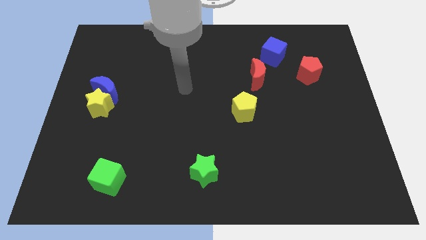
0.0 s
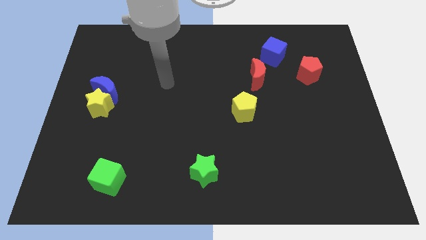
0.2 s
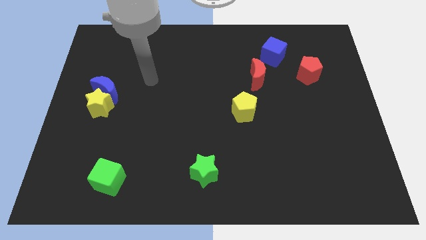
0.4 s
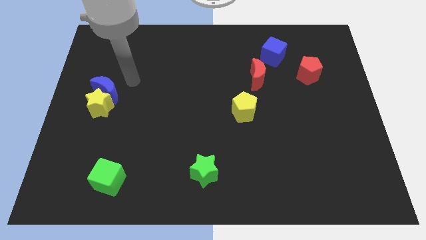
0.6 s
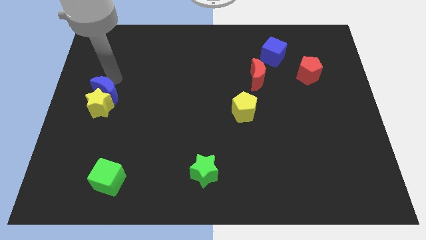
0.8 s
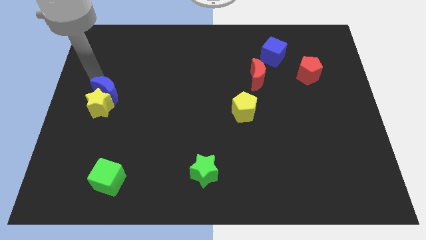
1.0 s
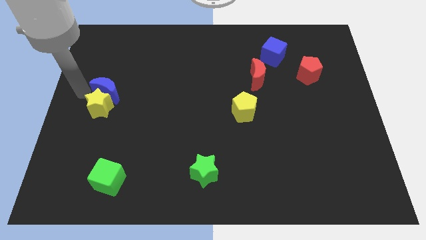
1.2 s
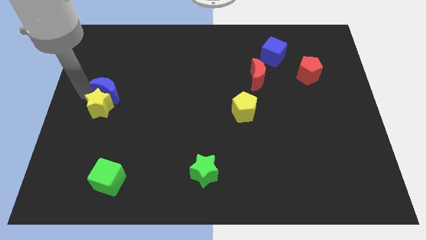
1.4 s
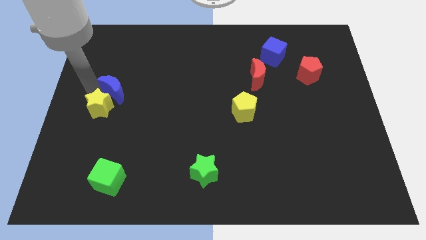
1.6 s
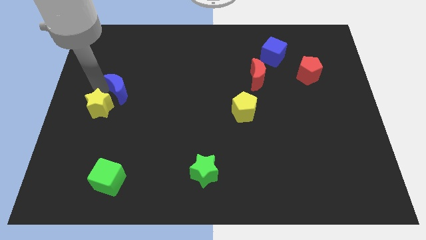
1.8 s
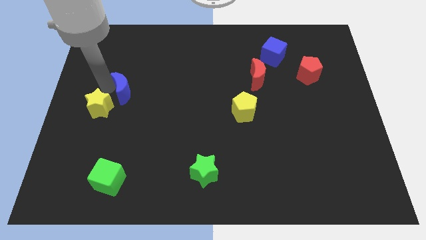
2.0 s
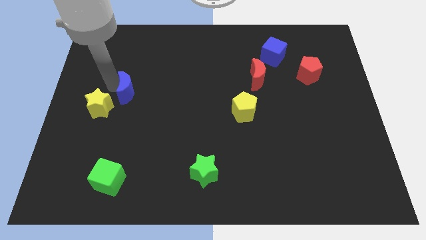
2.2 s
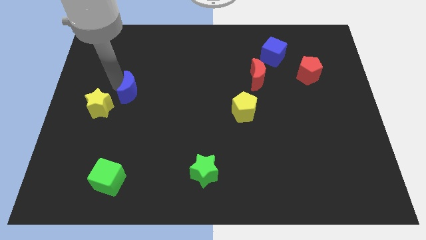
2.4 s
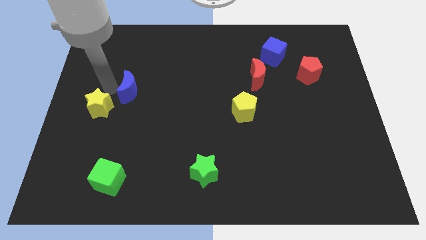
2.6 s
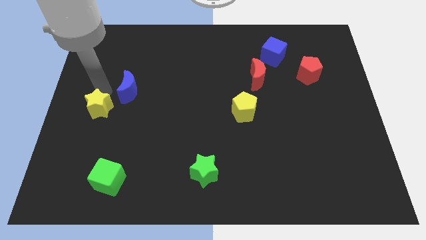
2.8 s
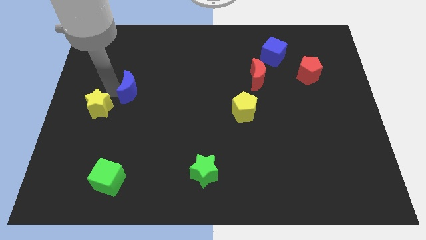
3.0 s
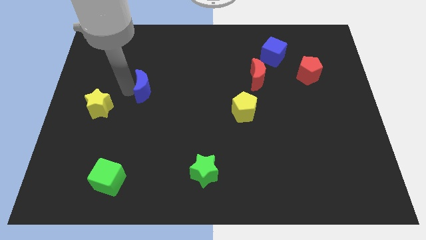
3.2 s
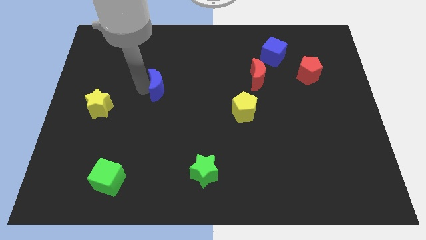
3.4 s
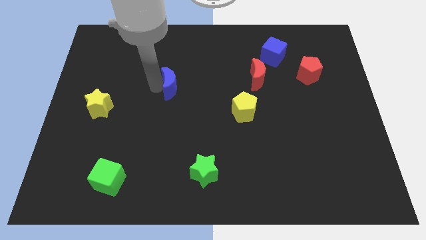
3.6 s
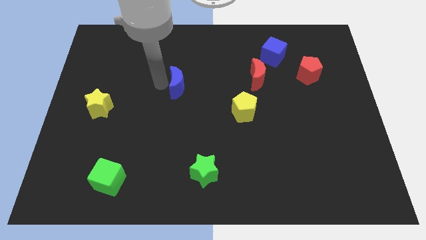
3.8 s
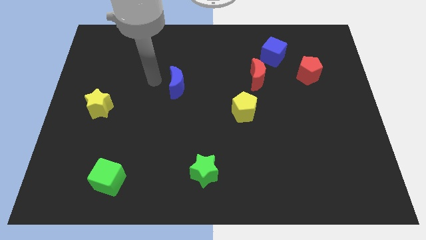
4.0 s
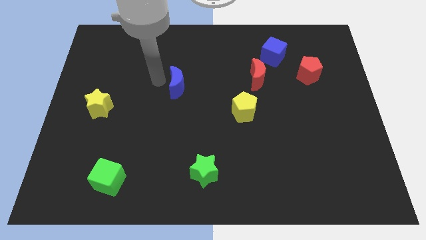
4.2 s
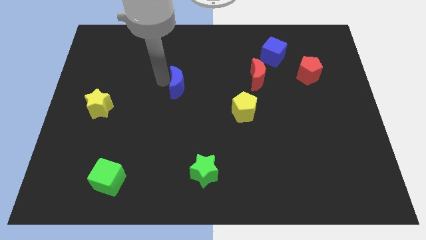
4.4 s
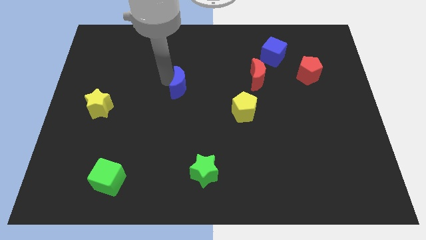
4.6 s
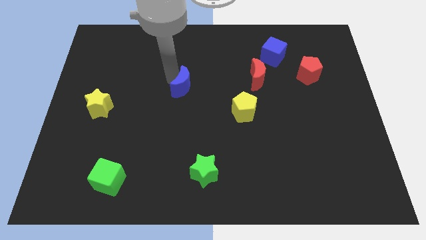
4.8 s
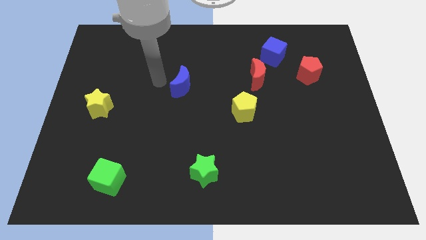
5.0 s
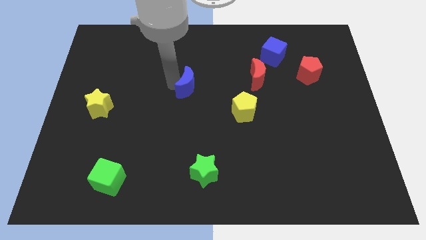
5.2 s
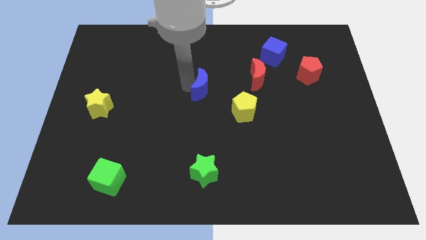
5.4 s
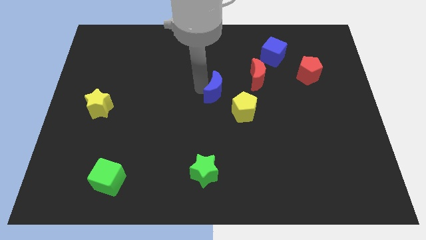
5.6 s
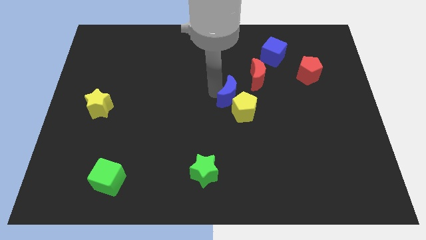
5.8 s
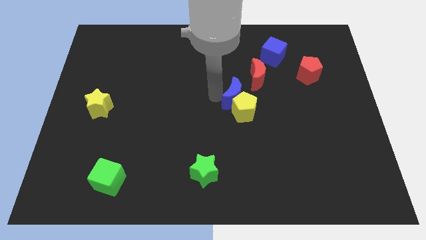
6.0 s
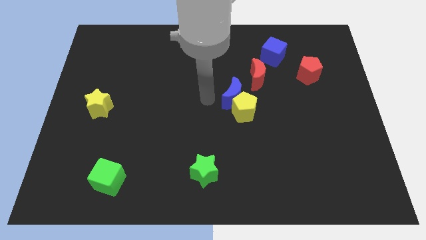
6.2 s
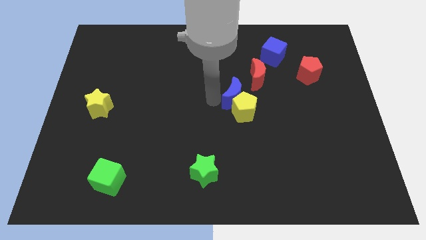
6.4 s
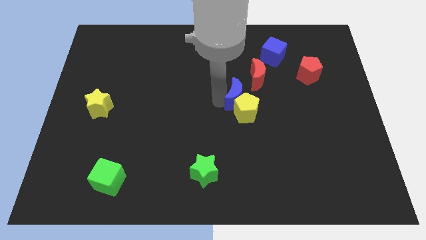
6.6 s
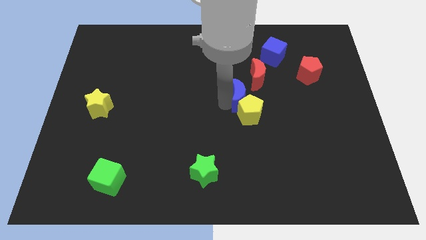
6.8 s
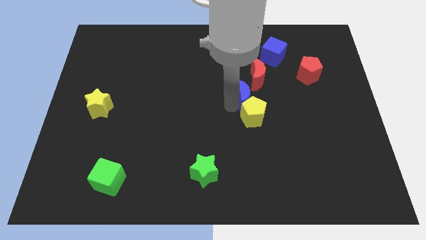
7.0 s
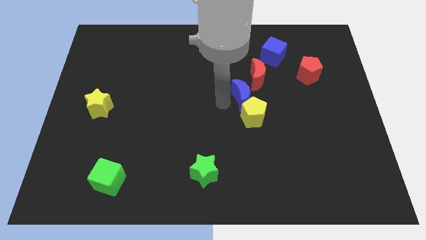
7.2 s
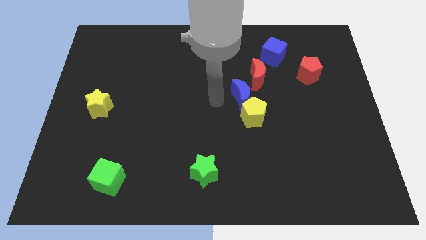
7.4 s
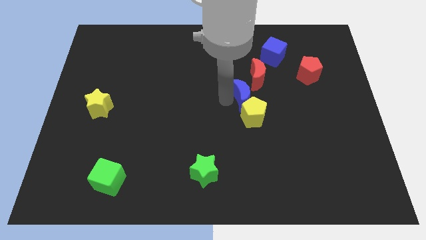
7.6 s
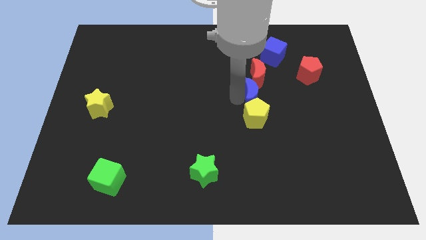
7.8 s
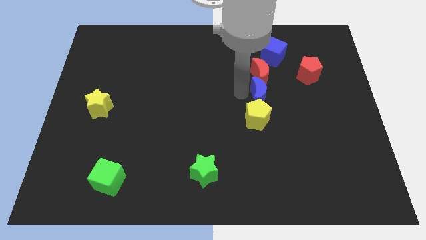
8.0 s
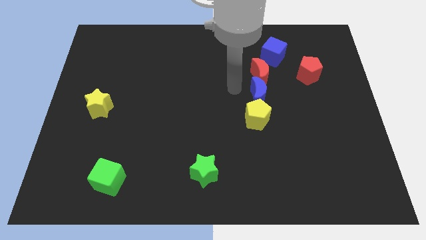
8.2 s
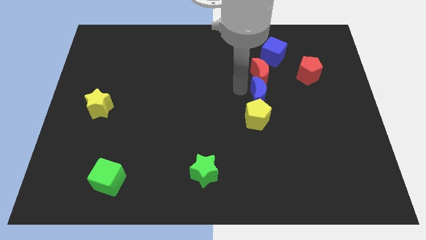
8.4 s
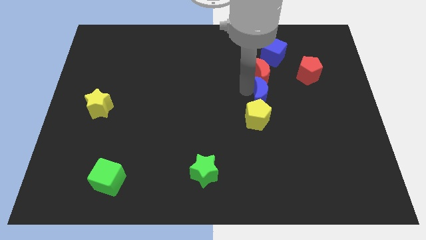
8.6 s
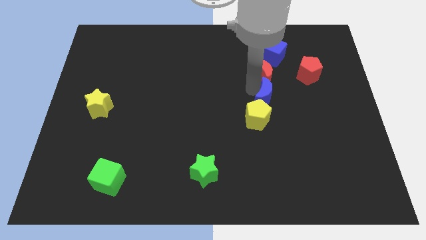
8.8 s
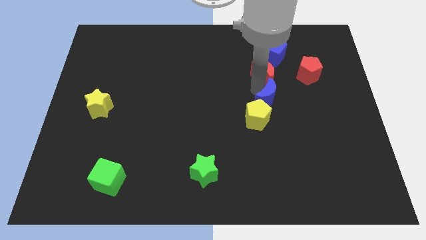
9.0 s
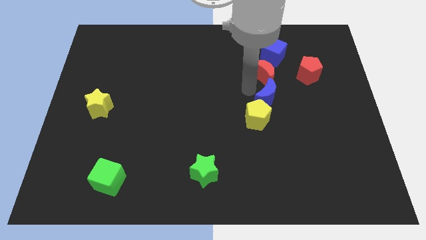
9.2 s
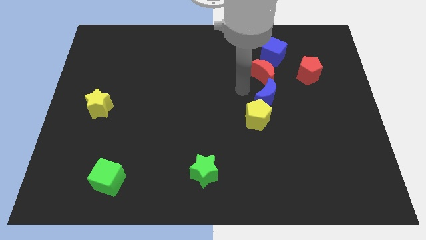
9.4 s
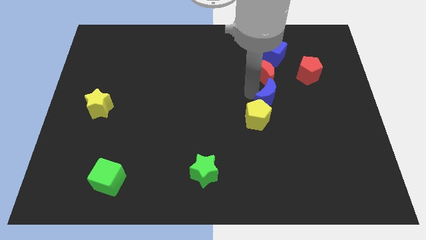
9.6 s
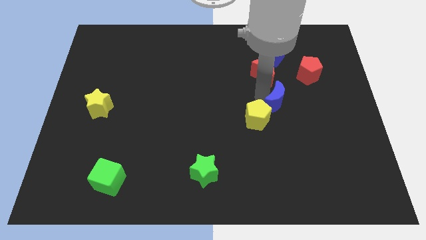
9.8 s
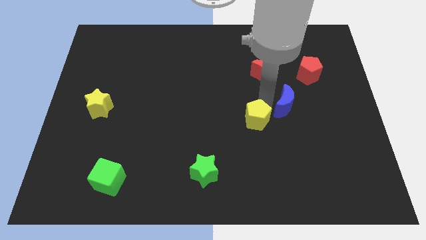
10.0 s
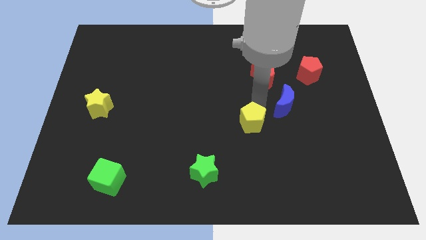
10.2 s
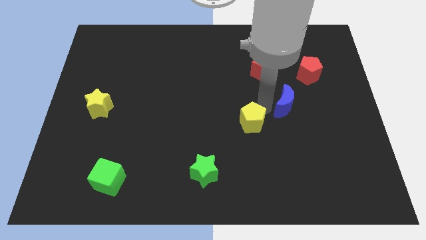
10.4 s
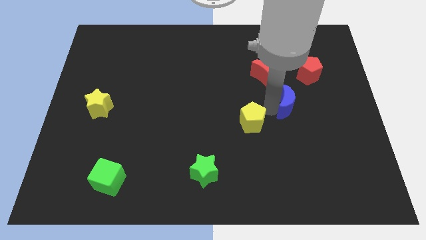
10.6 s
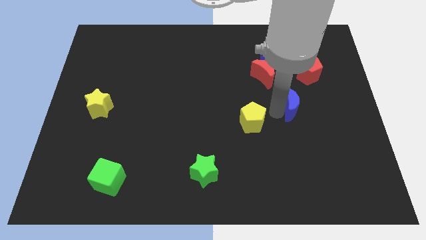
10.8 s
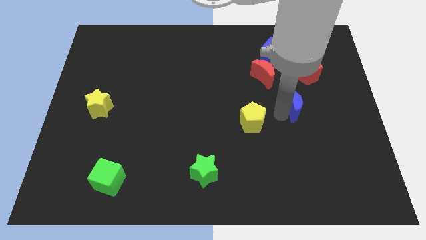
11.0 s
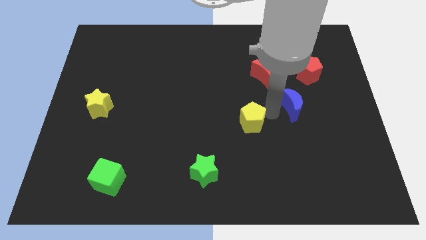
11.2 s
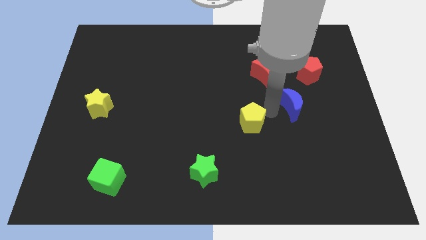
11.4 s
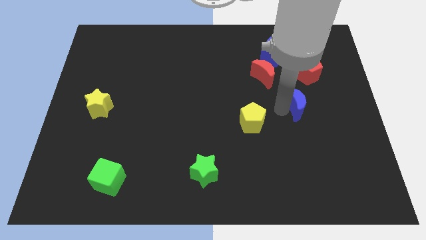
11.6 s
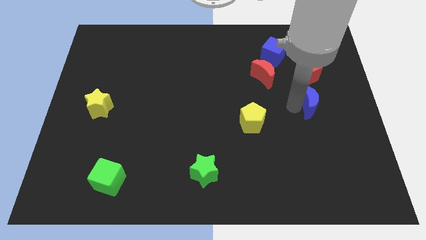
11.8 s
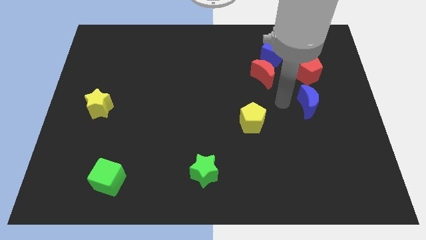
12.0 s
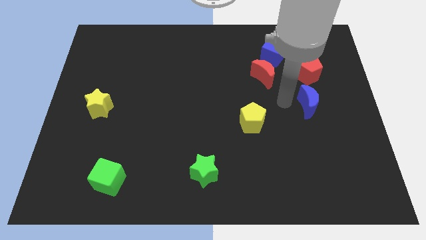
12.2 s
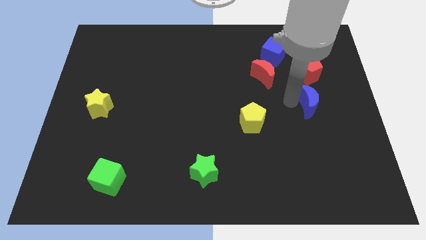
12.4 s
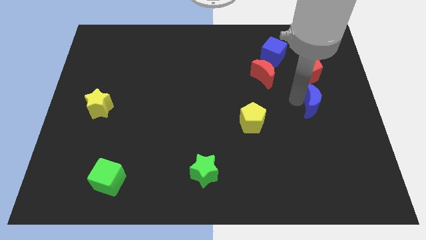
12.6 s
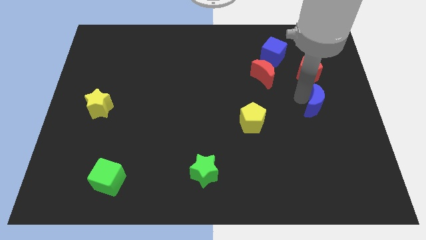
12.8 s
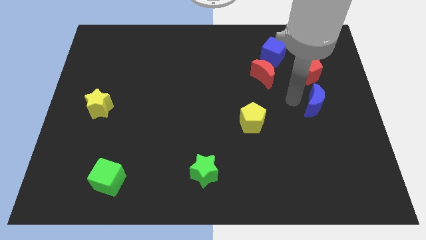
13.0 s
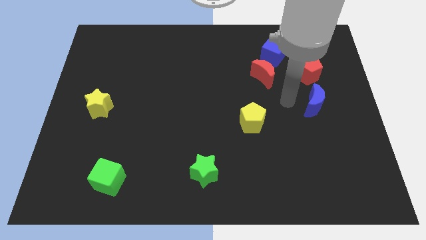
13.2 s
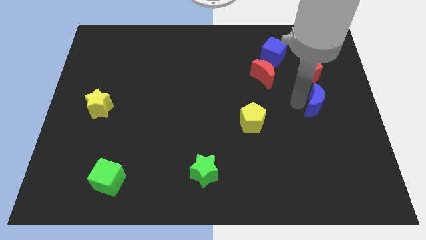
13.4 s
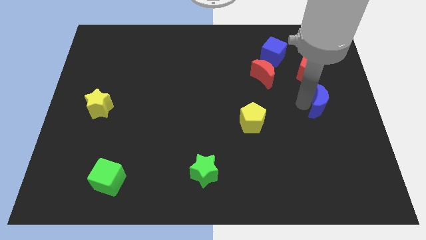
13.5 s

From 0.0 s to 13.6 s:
slide the blue moon to the right side
